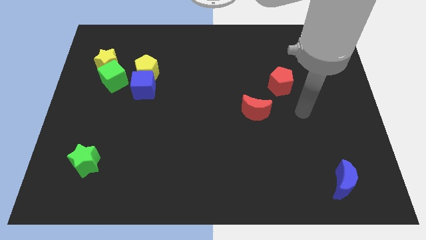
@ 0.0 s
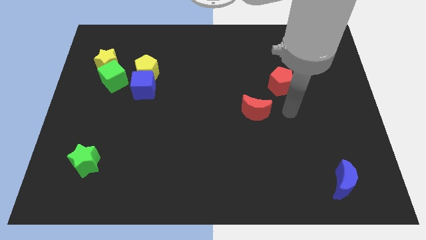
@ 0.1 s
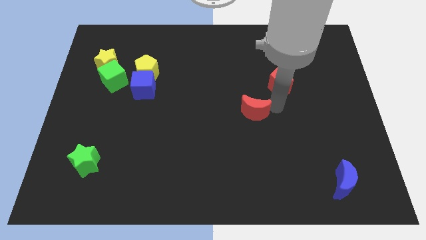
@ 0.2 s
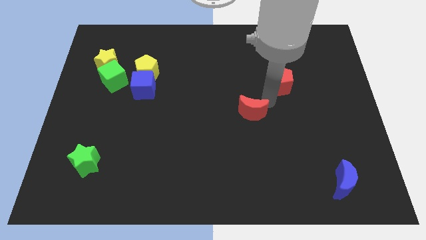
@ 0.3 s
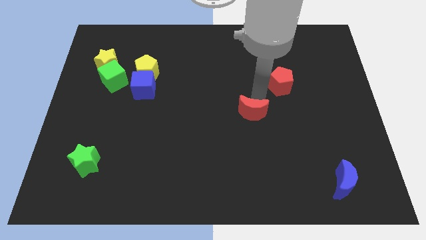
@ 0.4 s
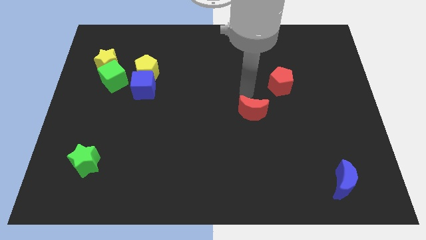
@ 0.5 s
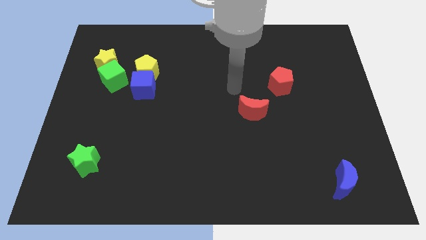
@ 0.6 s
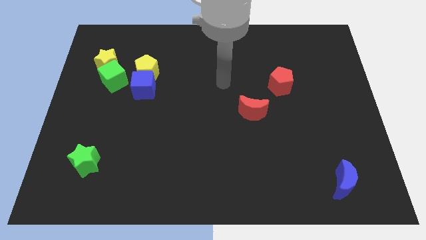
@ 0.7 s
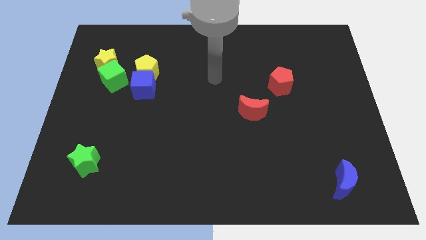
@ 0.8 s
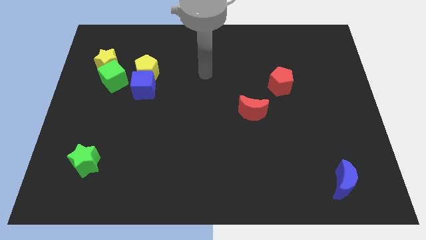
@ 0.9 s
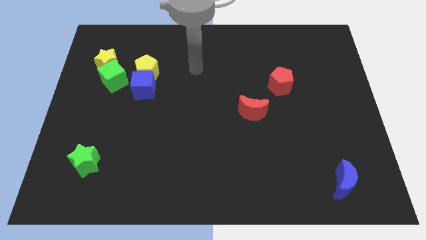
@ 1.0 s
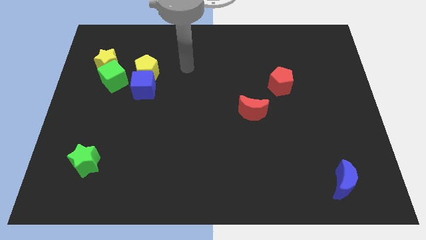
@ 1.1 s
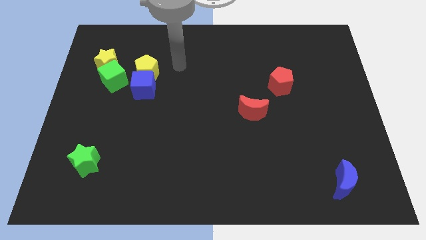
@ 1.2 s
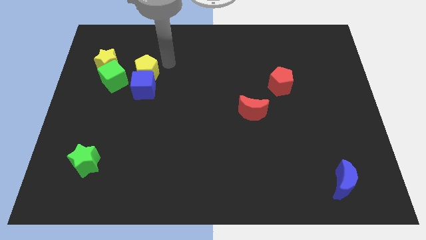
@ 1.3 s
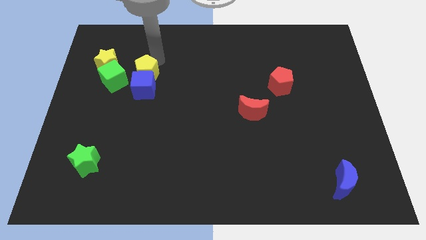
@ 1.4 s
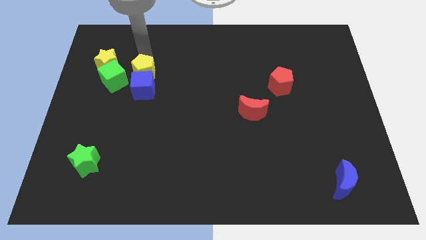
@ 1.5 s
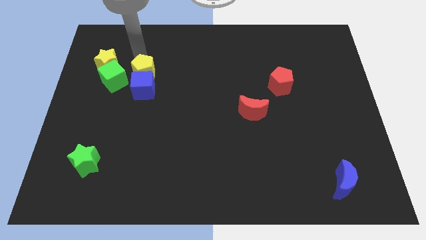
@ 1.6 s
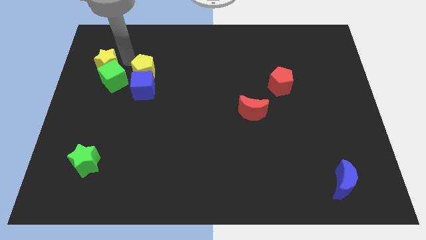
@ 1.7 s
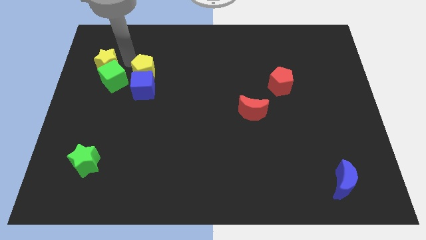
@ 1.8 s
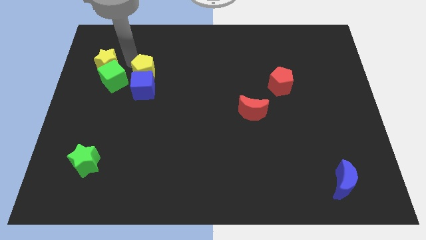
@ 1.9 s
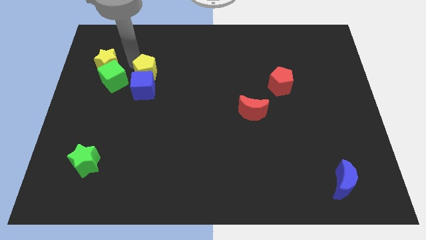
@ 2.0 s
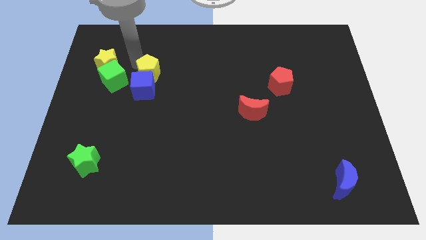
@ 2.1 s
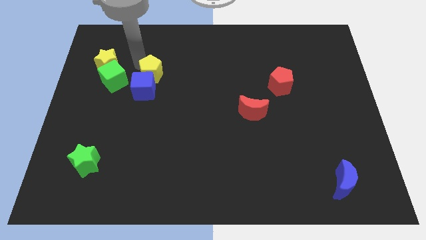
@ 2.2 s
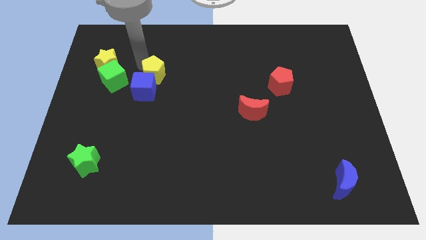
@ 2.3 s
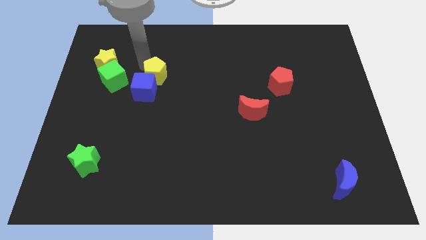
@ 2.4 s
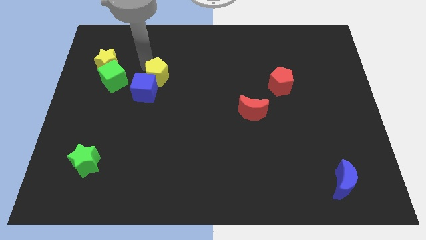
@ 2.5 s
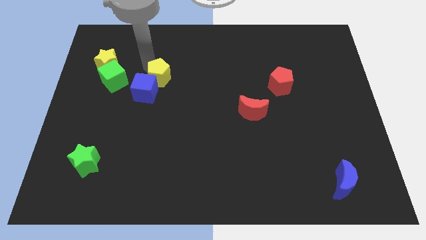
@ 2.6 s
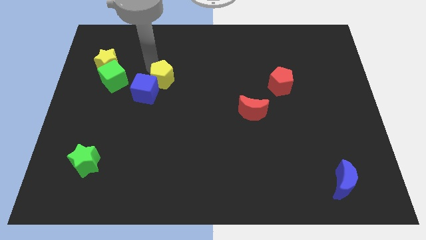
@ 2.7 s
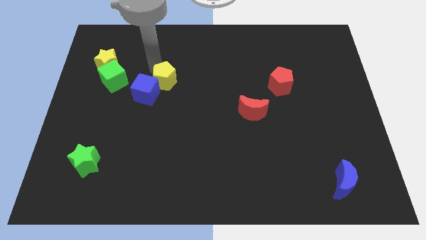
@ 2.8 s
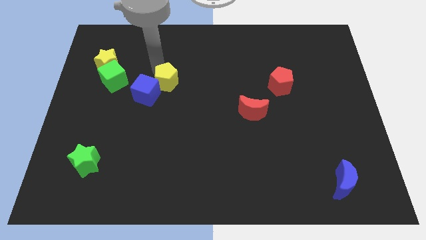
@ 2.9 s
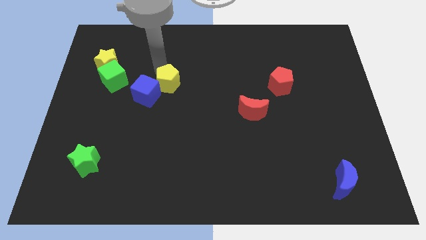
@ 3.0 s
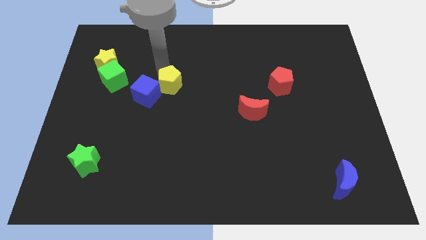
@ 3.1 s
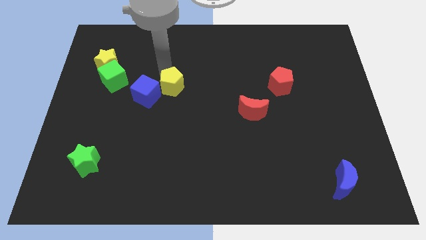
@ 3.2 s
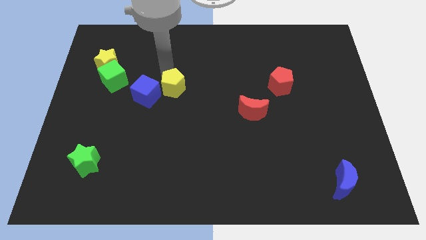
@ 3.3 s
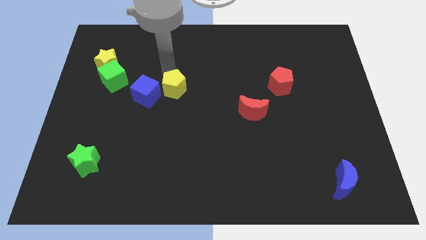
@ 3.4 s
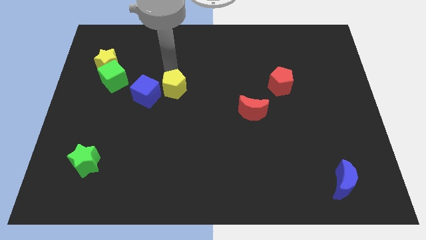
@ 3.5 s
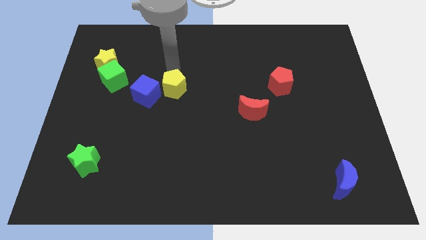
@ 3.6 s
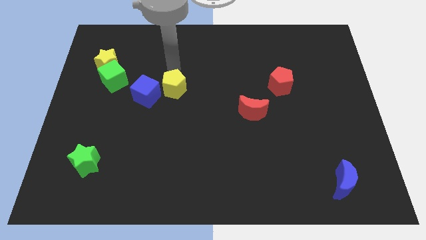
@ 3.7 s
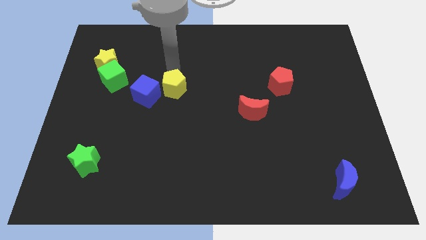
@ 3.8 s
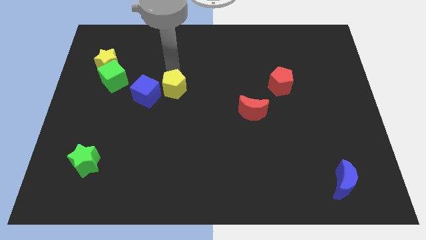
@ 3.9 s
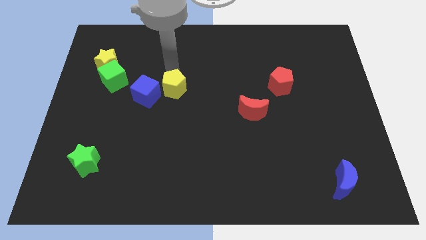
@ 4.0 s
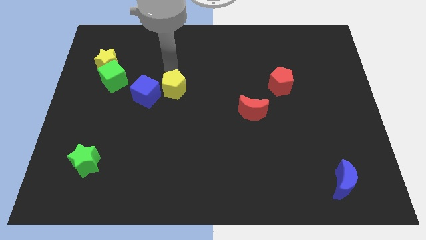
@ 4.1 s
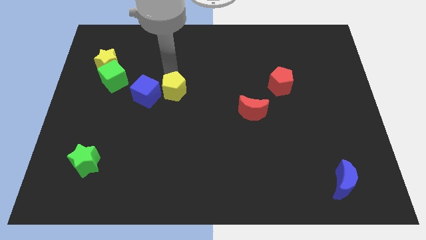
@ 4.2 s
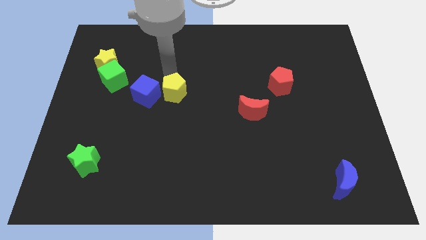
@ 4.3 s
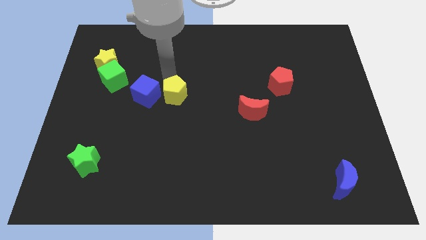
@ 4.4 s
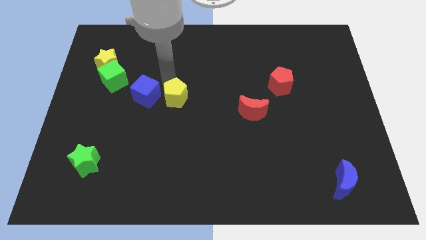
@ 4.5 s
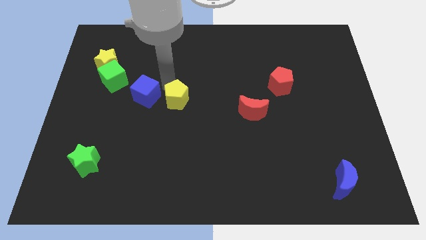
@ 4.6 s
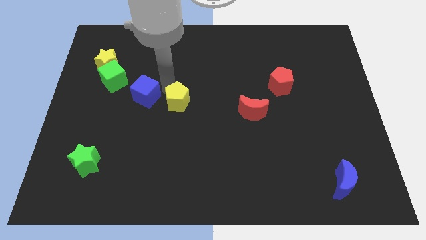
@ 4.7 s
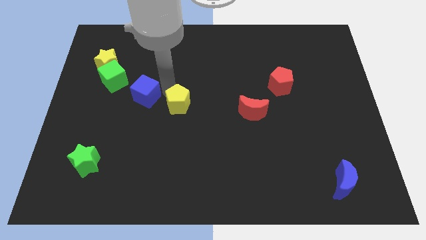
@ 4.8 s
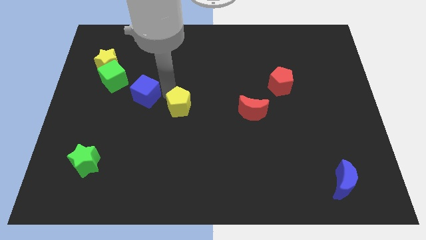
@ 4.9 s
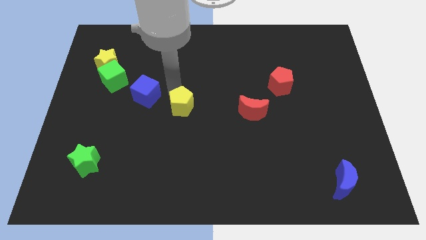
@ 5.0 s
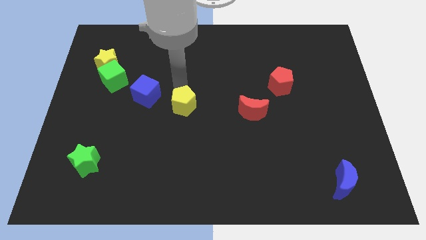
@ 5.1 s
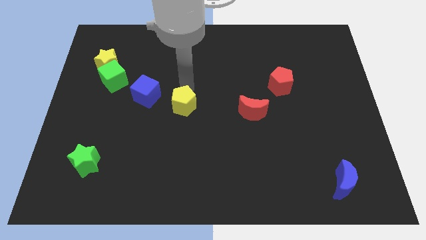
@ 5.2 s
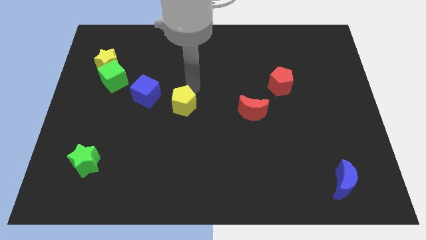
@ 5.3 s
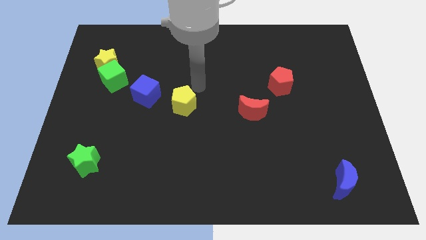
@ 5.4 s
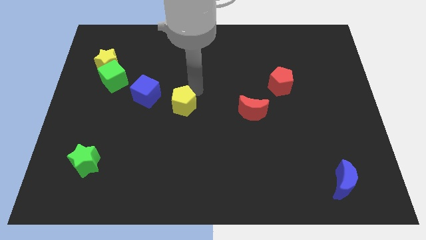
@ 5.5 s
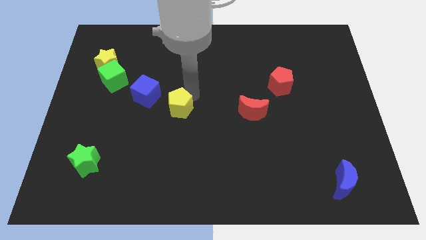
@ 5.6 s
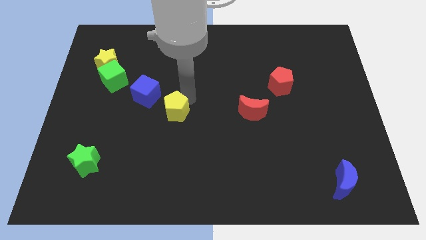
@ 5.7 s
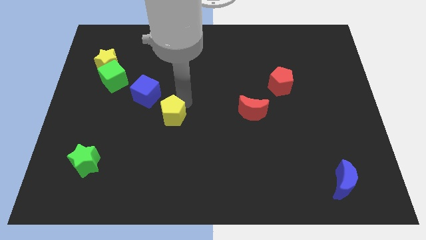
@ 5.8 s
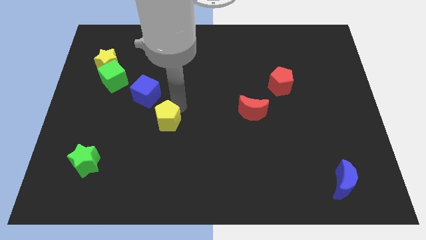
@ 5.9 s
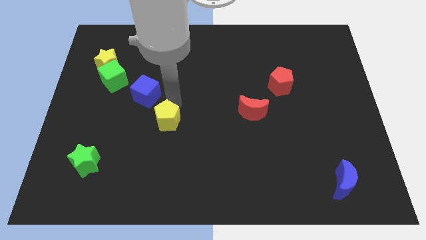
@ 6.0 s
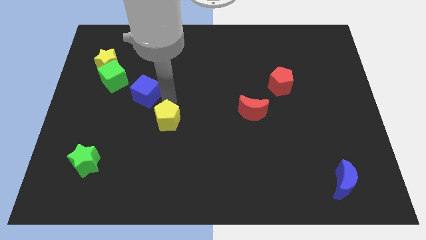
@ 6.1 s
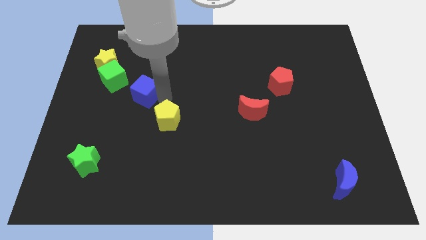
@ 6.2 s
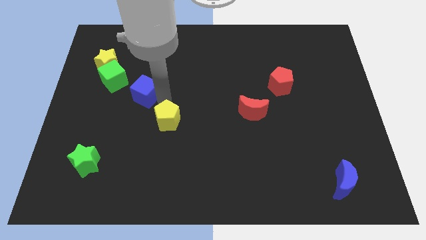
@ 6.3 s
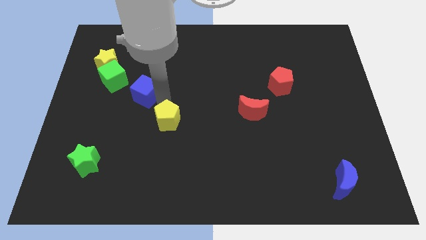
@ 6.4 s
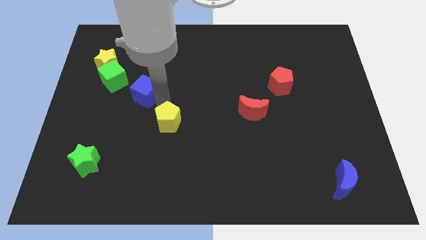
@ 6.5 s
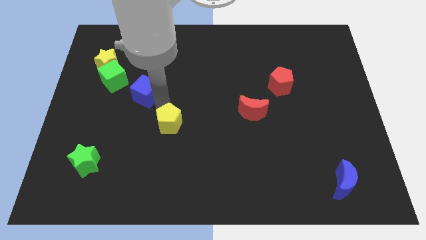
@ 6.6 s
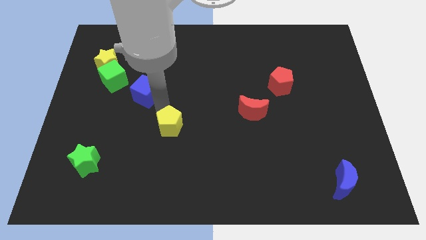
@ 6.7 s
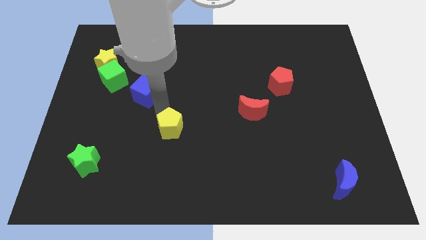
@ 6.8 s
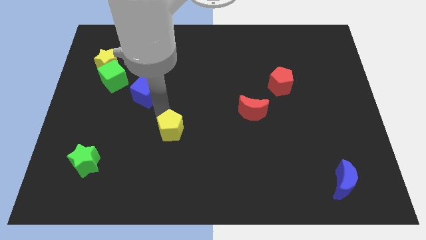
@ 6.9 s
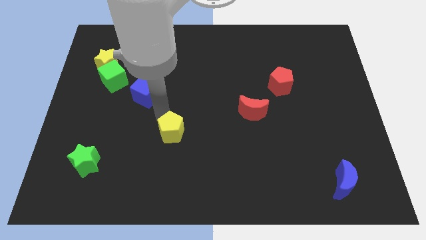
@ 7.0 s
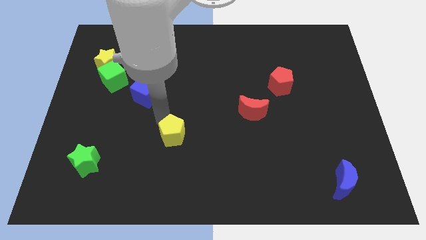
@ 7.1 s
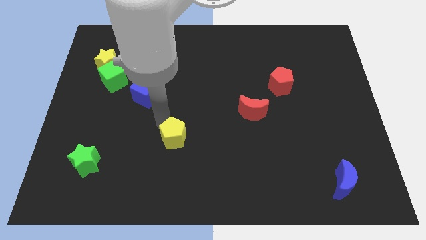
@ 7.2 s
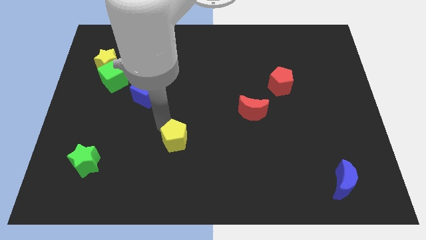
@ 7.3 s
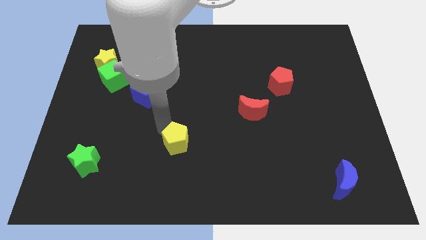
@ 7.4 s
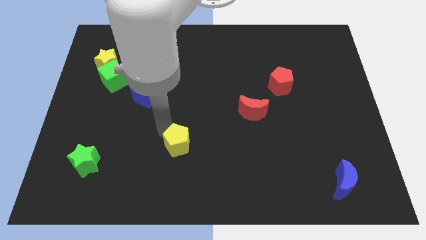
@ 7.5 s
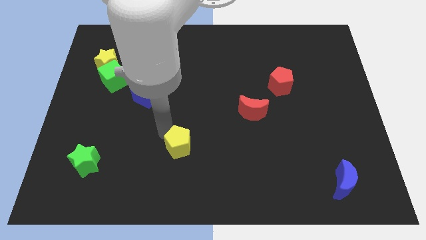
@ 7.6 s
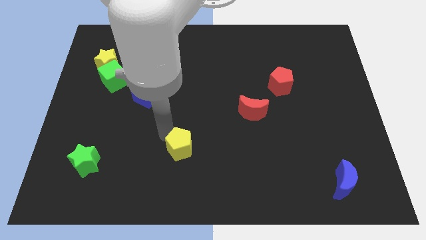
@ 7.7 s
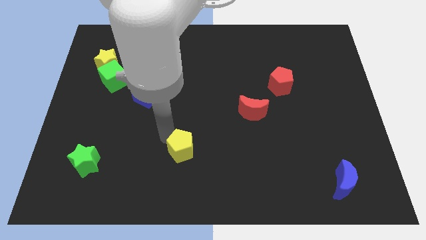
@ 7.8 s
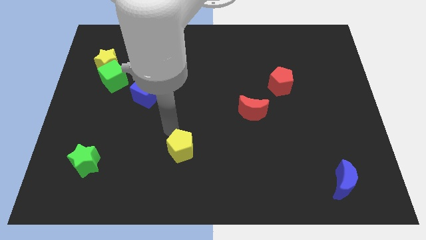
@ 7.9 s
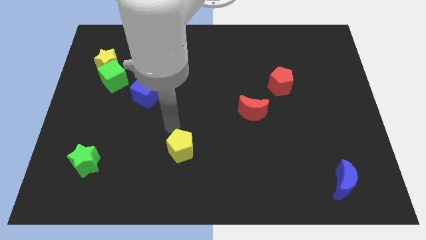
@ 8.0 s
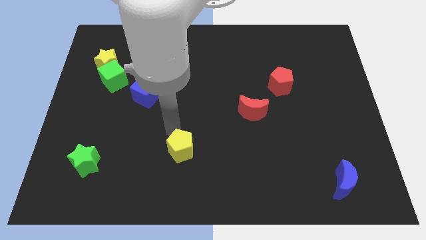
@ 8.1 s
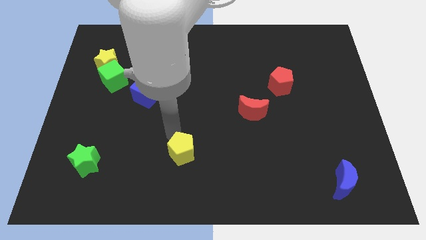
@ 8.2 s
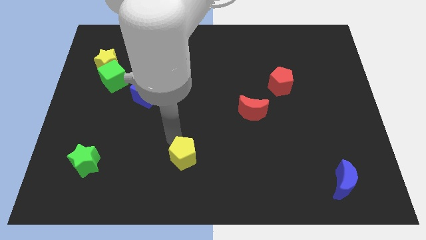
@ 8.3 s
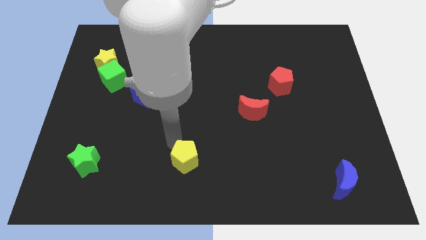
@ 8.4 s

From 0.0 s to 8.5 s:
put the yellow pentagon to the bottom
